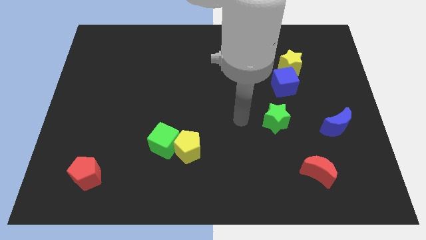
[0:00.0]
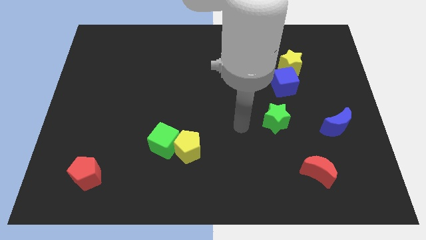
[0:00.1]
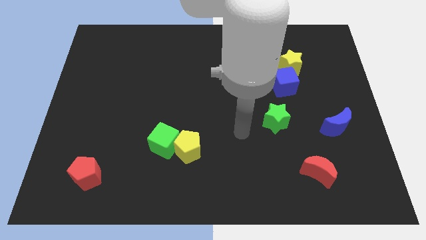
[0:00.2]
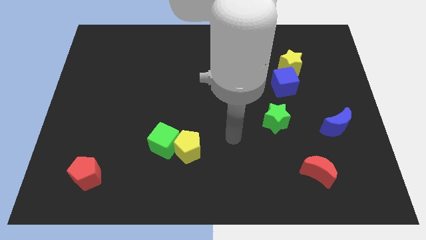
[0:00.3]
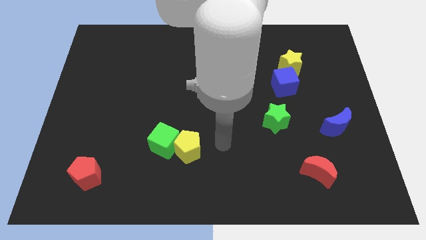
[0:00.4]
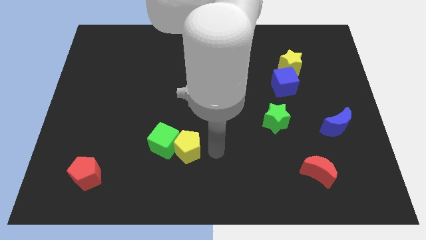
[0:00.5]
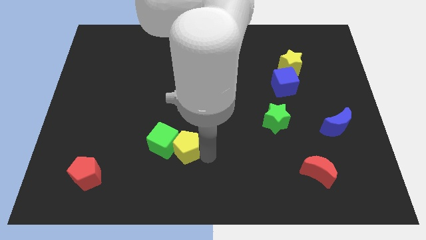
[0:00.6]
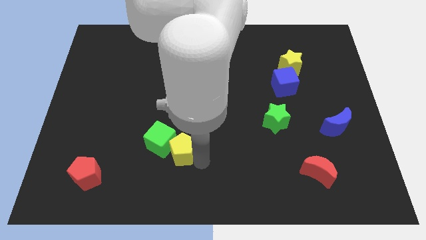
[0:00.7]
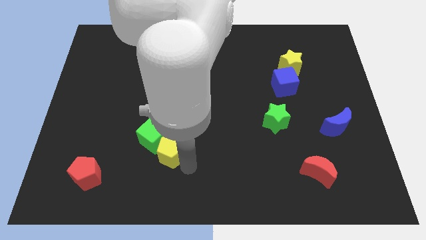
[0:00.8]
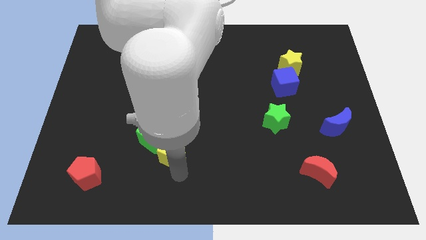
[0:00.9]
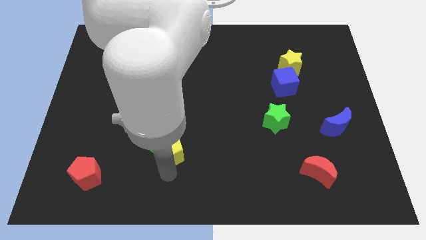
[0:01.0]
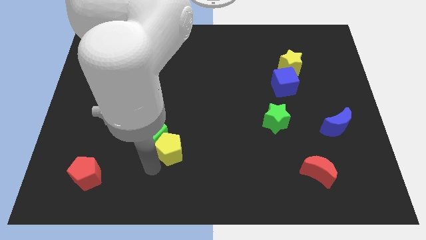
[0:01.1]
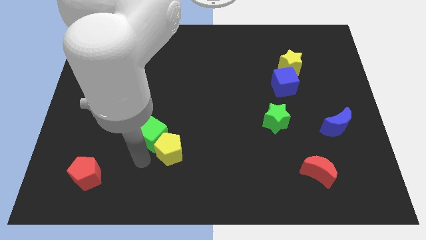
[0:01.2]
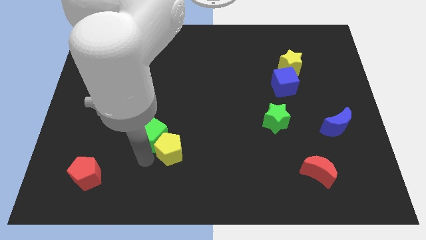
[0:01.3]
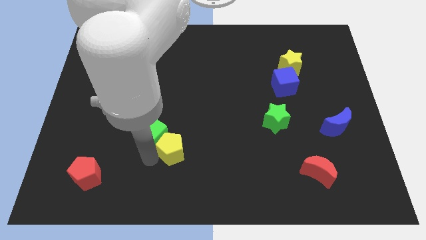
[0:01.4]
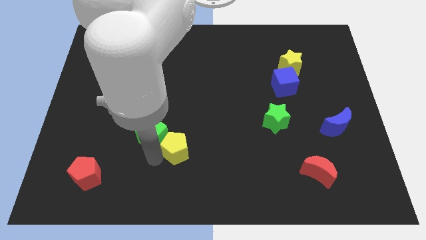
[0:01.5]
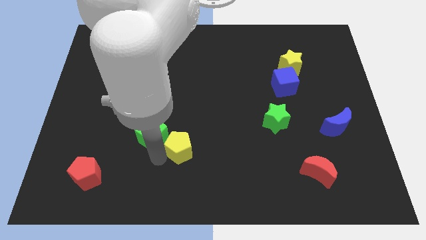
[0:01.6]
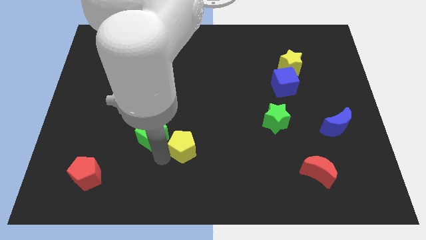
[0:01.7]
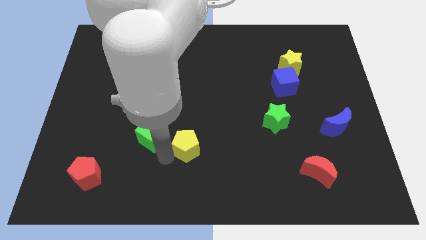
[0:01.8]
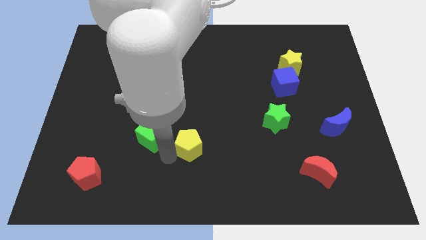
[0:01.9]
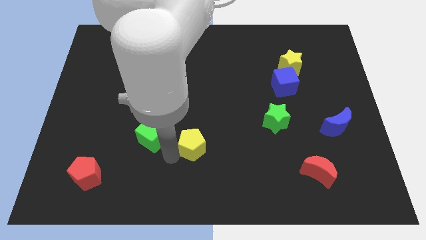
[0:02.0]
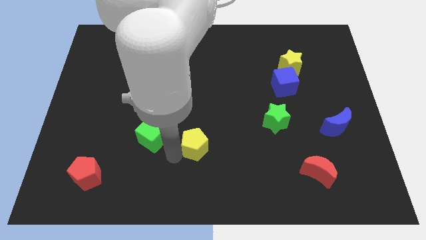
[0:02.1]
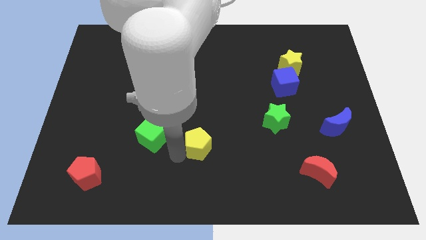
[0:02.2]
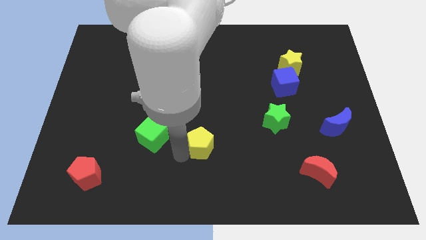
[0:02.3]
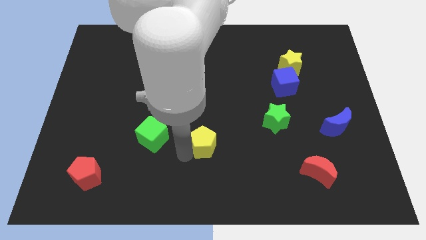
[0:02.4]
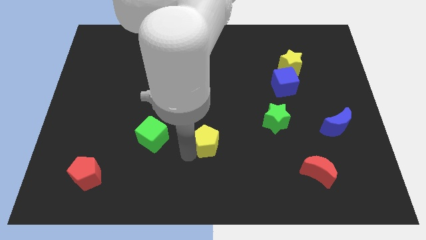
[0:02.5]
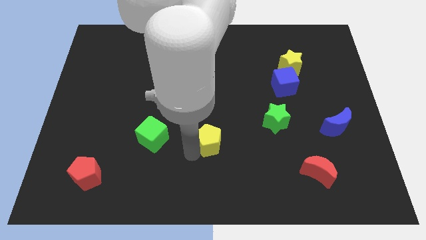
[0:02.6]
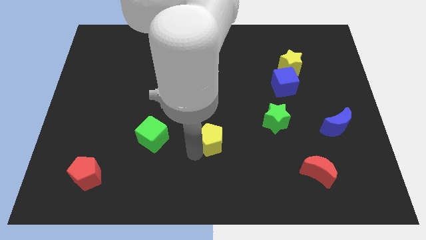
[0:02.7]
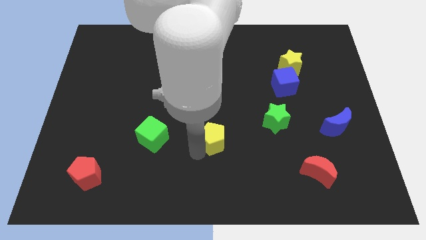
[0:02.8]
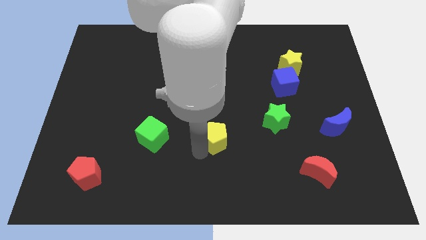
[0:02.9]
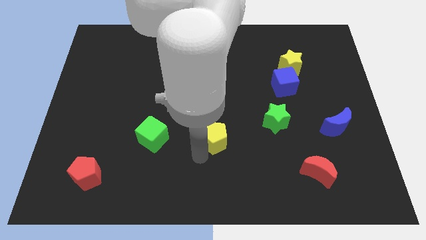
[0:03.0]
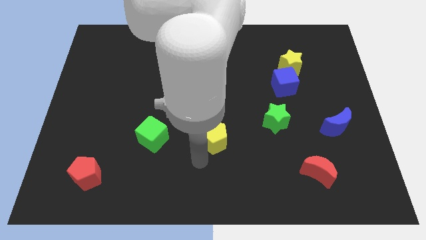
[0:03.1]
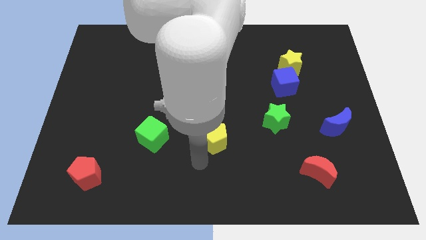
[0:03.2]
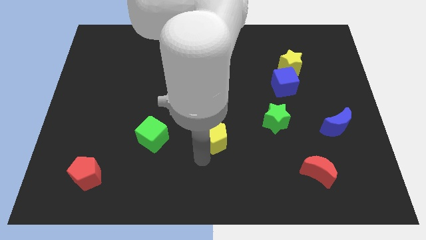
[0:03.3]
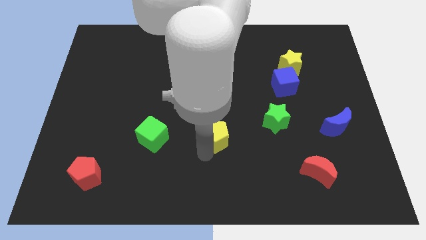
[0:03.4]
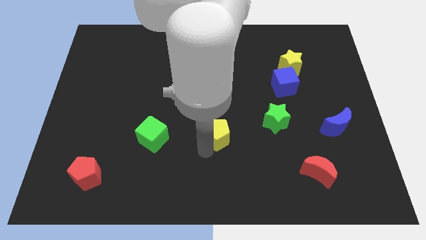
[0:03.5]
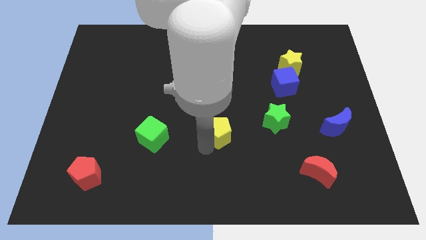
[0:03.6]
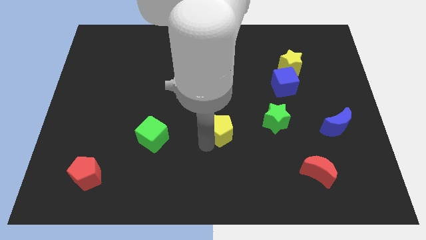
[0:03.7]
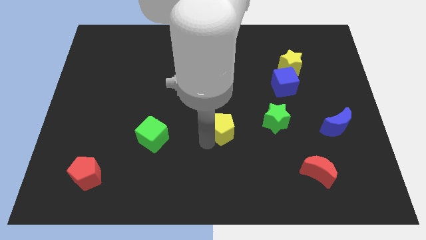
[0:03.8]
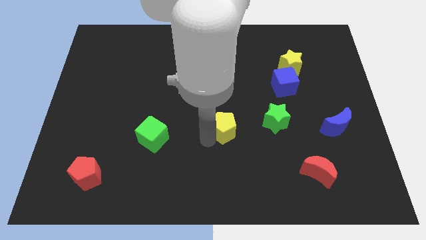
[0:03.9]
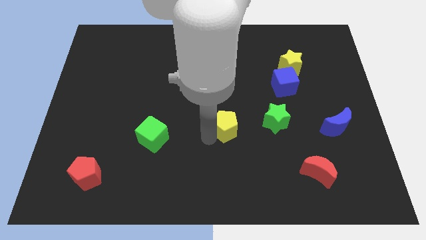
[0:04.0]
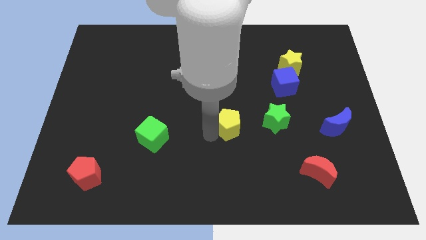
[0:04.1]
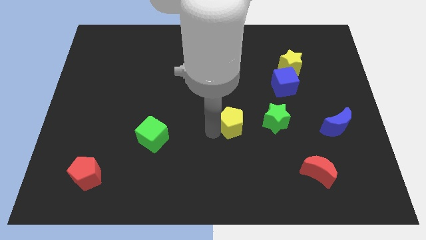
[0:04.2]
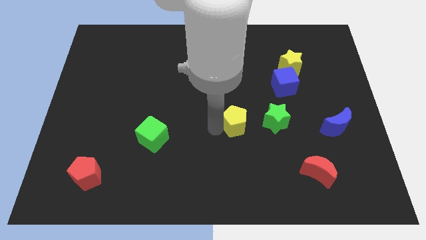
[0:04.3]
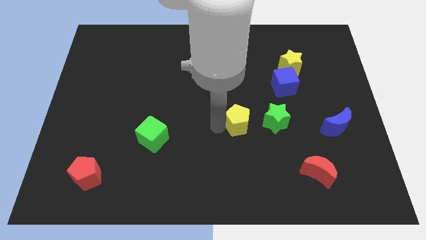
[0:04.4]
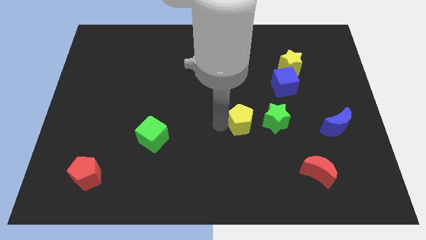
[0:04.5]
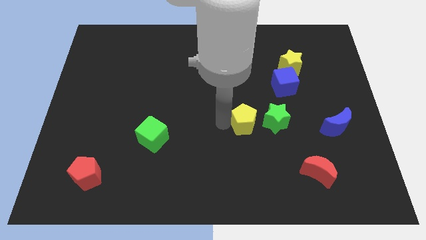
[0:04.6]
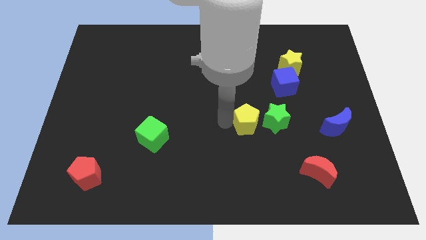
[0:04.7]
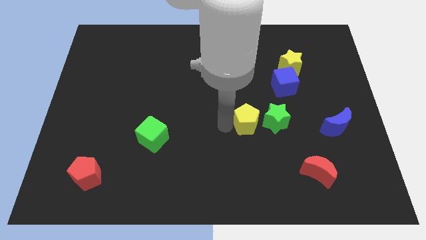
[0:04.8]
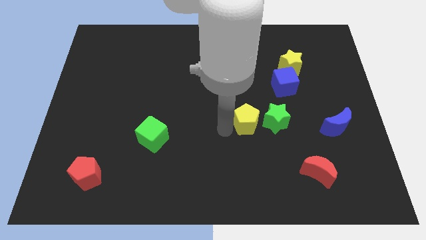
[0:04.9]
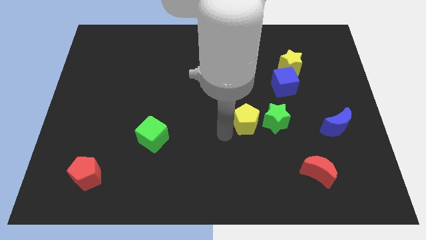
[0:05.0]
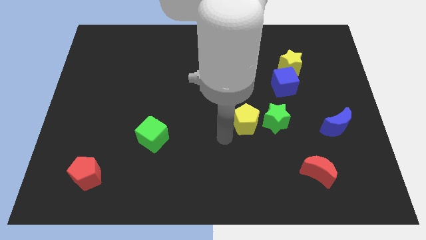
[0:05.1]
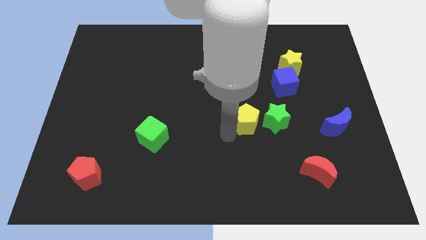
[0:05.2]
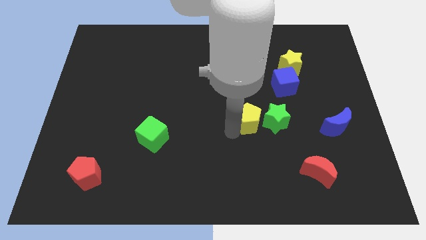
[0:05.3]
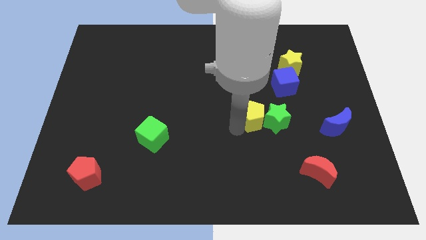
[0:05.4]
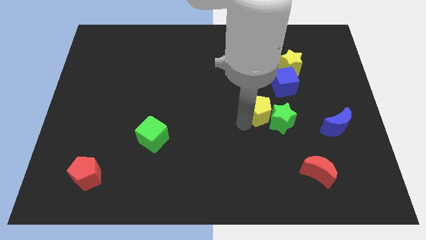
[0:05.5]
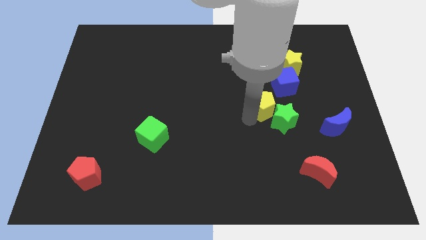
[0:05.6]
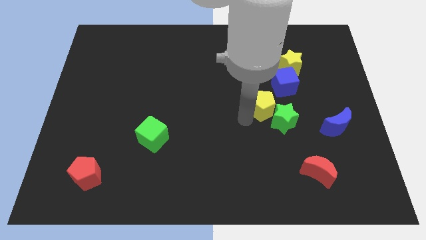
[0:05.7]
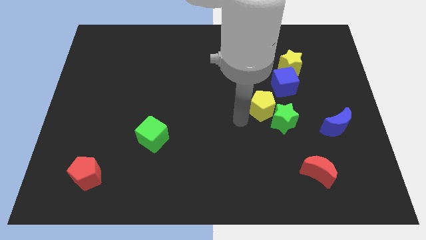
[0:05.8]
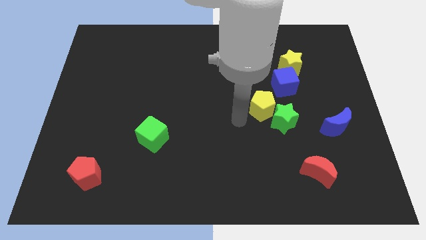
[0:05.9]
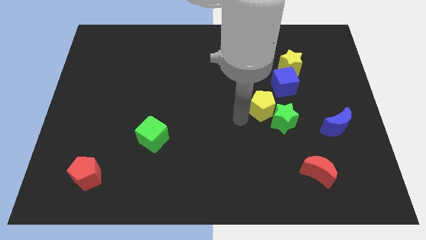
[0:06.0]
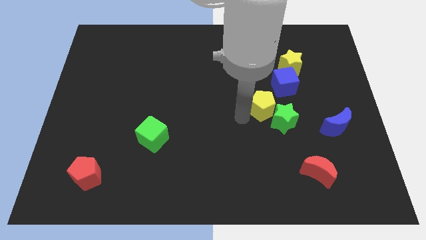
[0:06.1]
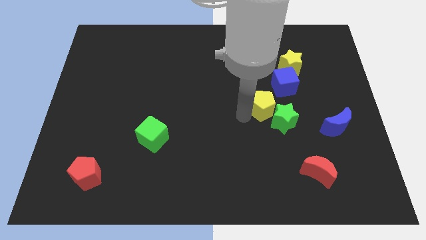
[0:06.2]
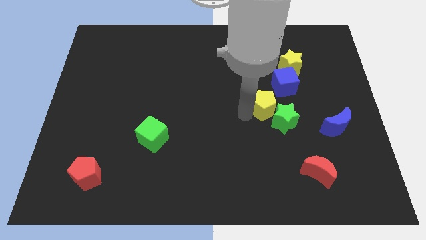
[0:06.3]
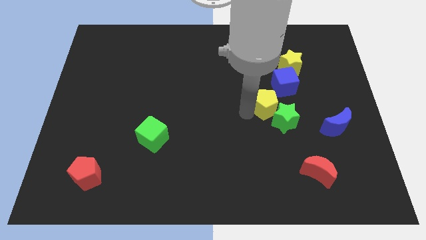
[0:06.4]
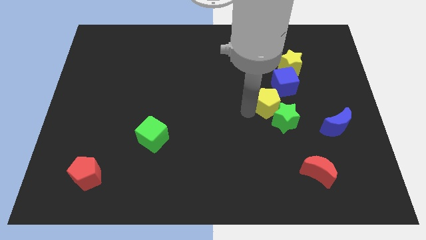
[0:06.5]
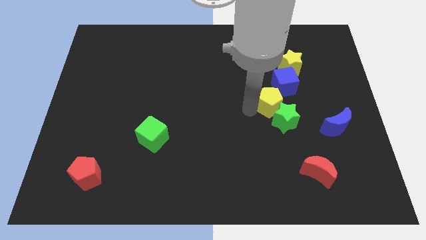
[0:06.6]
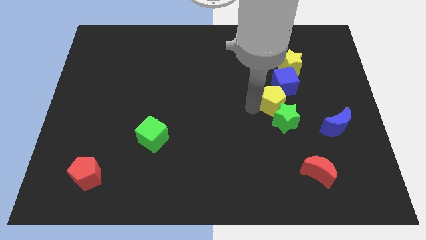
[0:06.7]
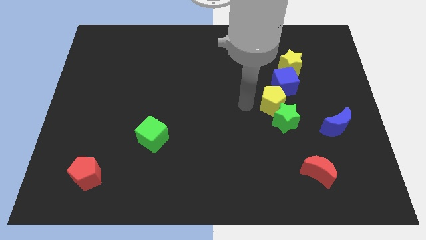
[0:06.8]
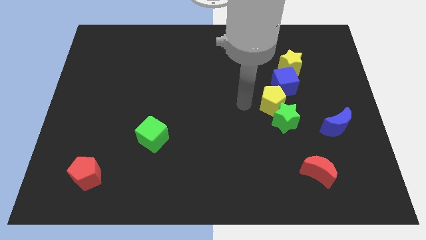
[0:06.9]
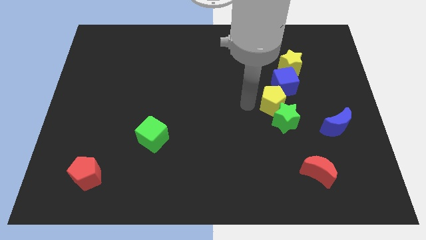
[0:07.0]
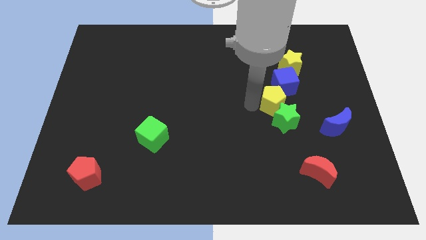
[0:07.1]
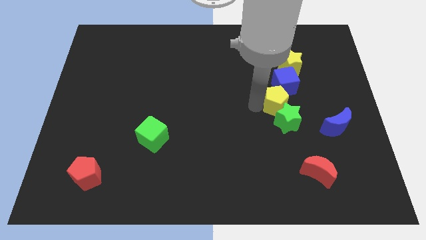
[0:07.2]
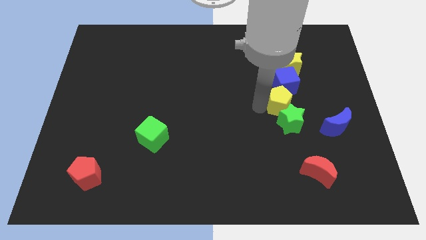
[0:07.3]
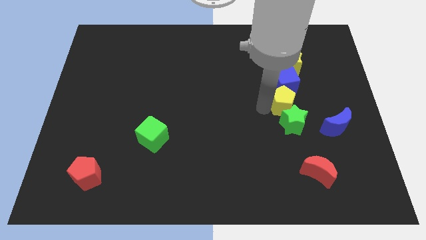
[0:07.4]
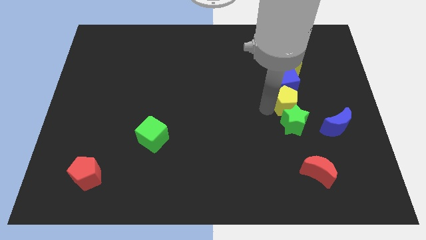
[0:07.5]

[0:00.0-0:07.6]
put the yellow pentagon to the bottom right of the blue cube
